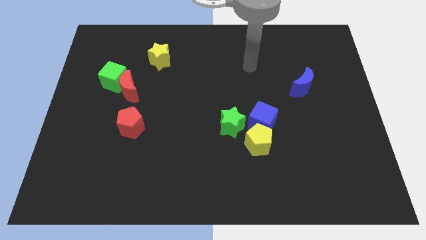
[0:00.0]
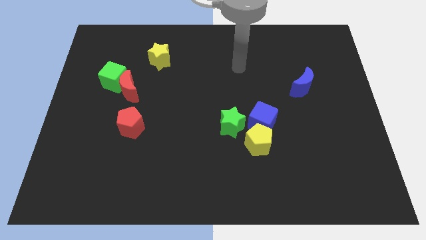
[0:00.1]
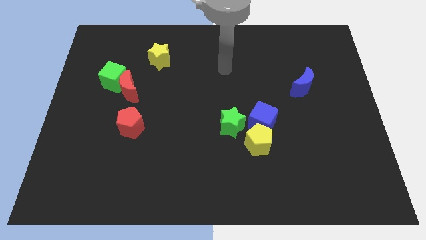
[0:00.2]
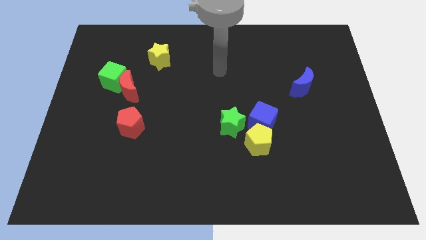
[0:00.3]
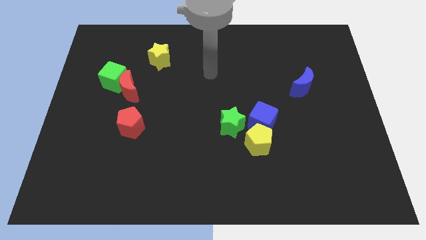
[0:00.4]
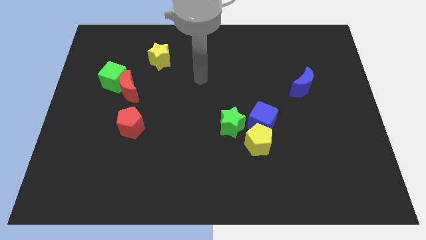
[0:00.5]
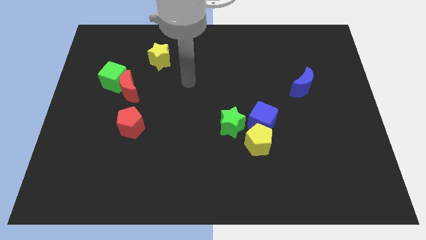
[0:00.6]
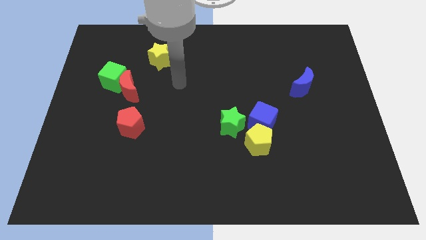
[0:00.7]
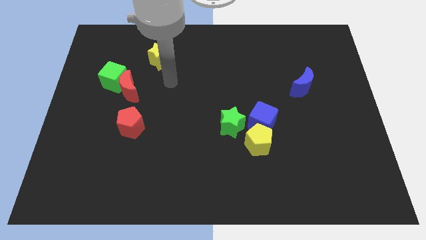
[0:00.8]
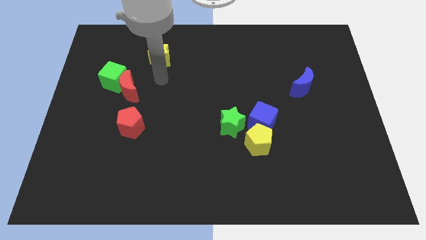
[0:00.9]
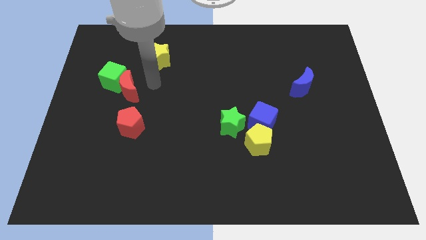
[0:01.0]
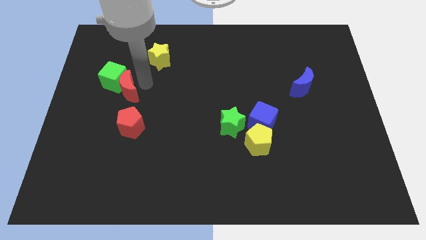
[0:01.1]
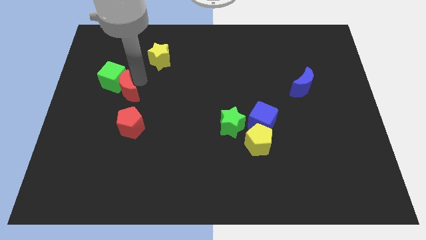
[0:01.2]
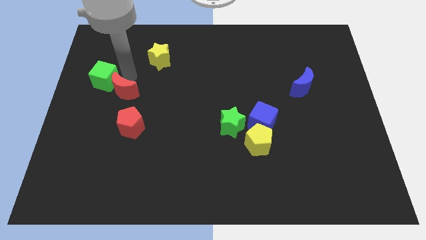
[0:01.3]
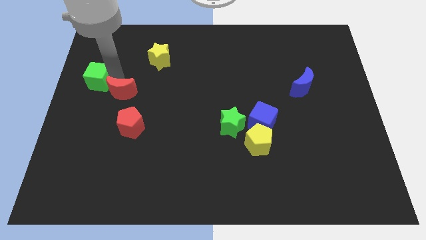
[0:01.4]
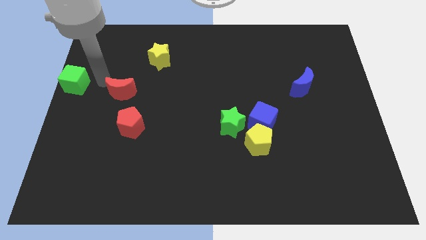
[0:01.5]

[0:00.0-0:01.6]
pull the red moon apart from the green cube

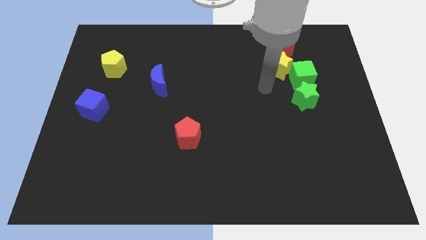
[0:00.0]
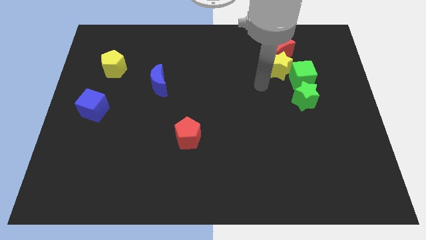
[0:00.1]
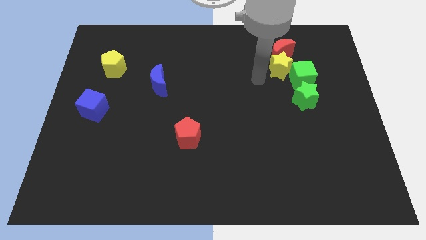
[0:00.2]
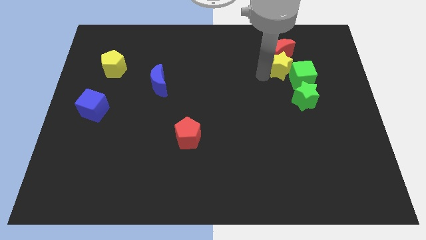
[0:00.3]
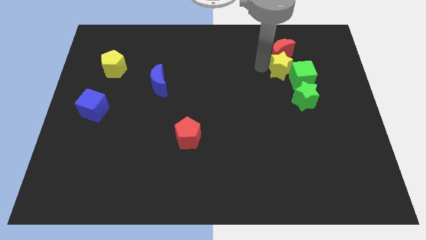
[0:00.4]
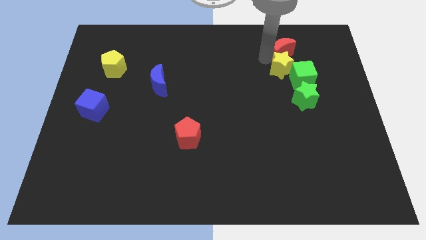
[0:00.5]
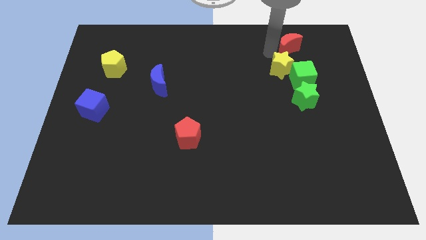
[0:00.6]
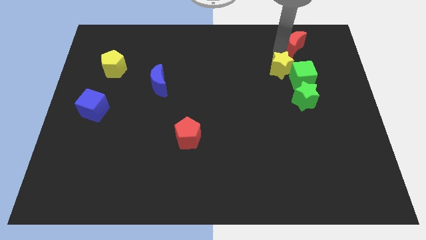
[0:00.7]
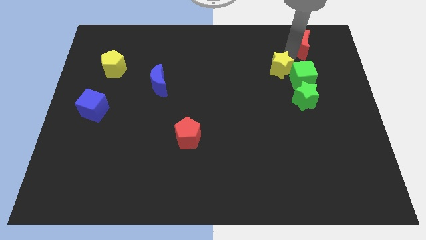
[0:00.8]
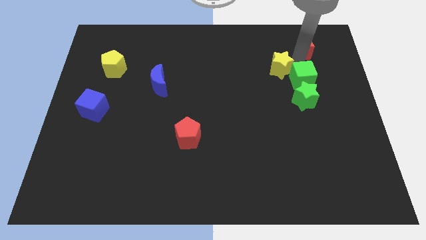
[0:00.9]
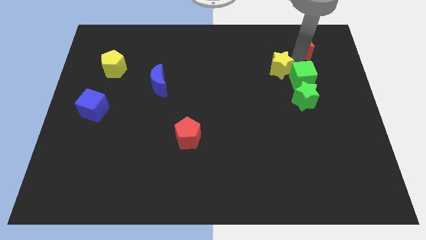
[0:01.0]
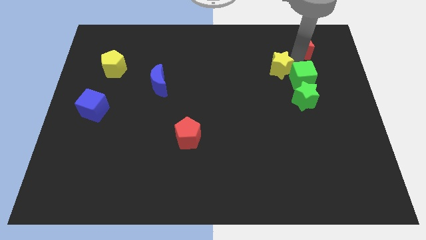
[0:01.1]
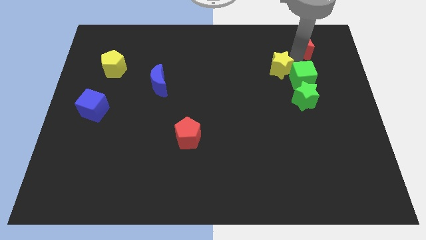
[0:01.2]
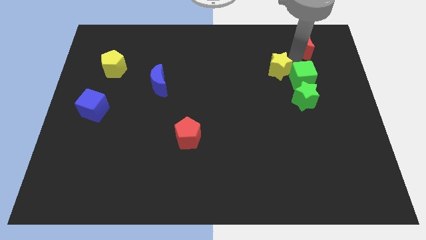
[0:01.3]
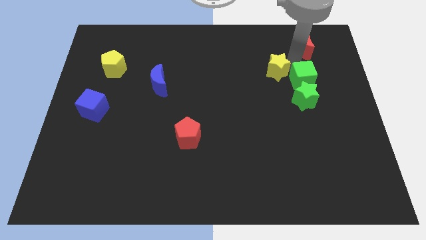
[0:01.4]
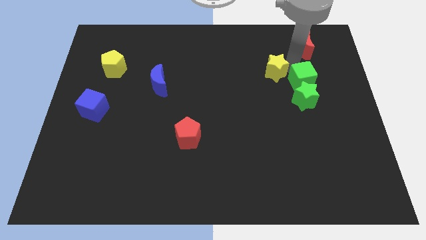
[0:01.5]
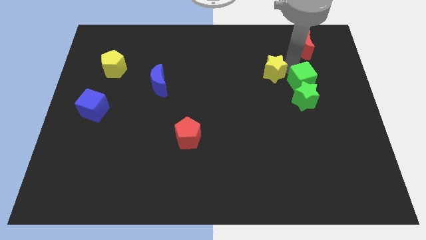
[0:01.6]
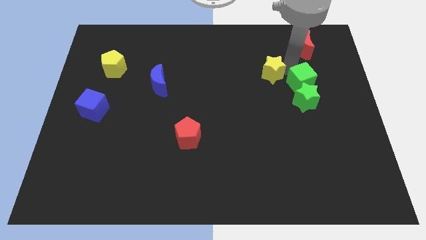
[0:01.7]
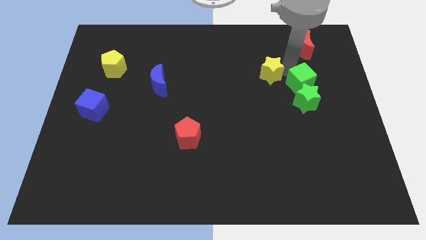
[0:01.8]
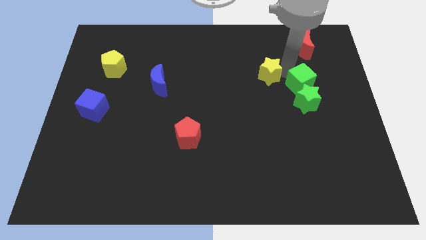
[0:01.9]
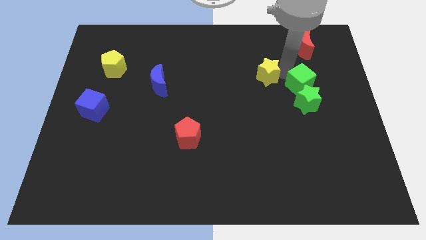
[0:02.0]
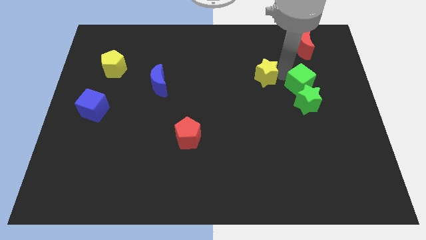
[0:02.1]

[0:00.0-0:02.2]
pull the yellow star apart from the red moon and green cube

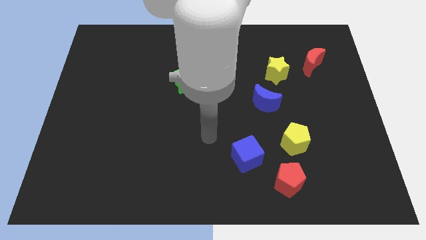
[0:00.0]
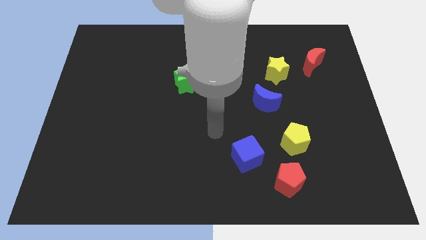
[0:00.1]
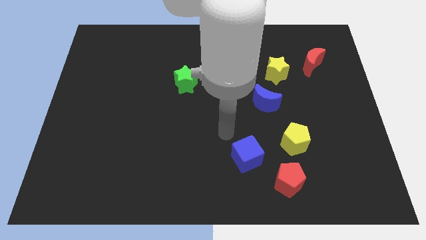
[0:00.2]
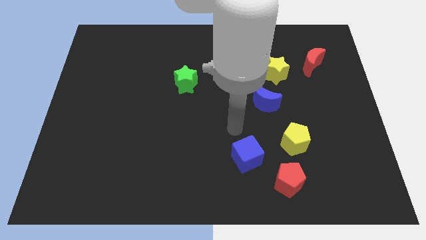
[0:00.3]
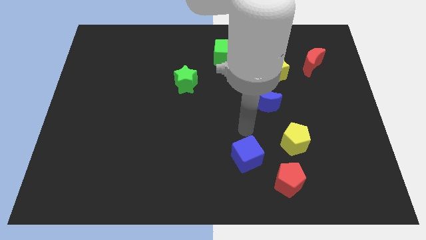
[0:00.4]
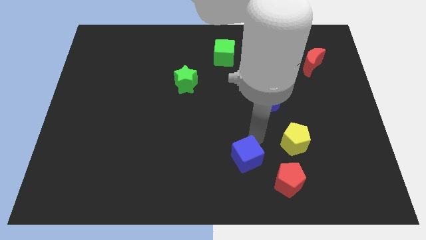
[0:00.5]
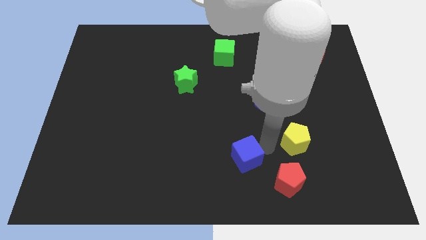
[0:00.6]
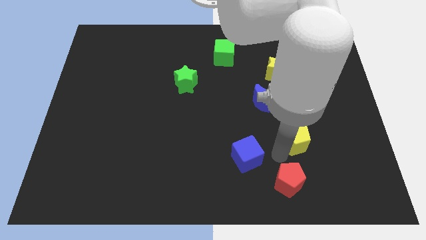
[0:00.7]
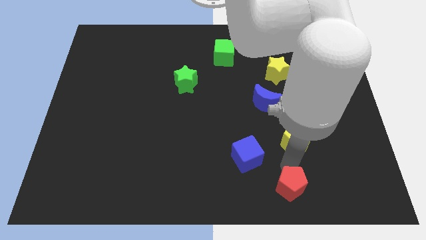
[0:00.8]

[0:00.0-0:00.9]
separate the yellow pentagon from the red pentagon

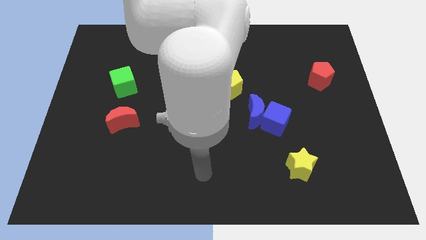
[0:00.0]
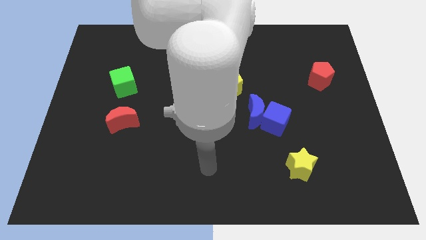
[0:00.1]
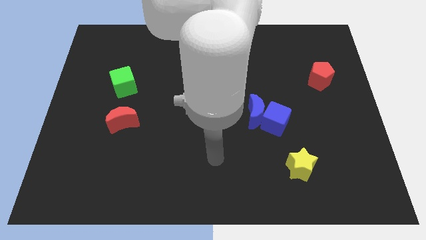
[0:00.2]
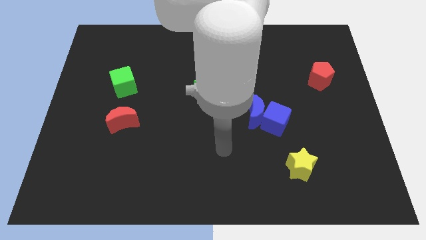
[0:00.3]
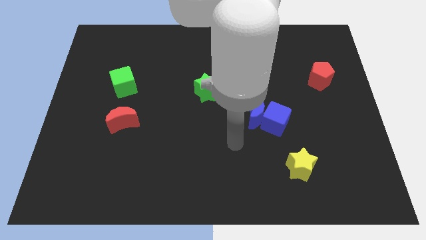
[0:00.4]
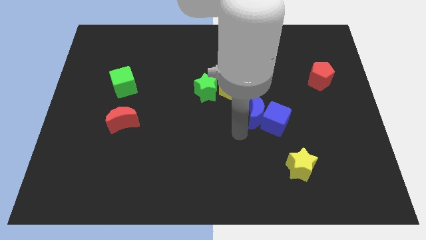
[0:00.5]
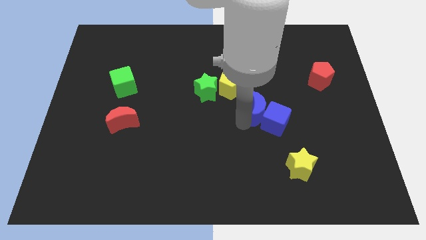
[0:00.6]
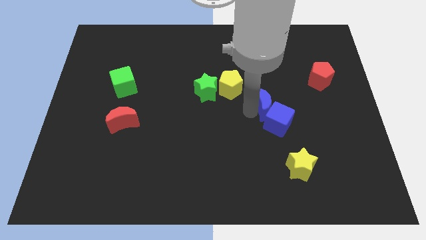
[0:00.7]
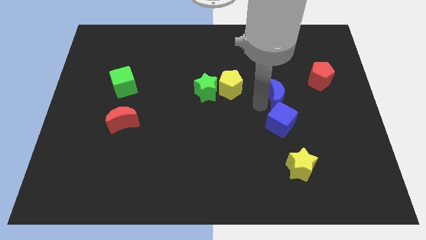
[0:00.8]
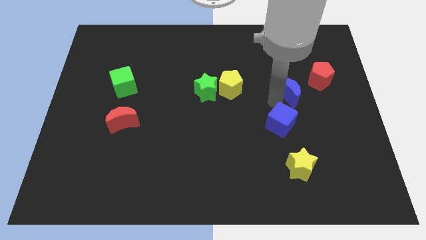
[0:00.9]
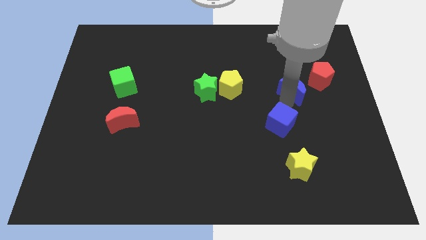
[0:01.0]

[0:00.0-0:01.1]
move the blue cube away from the blue moon

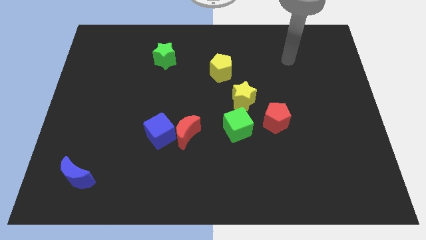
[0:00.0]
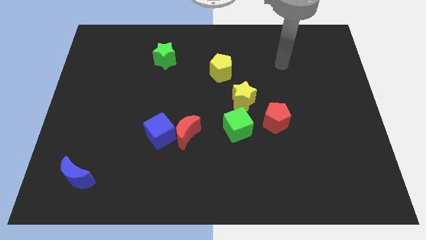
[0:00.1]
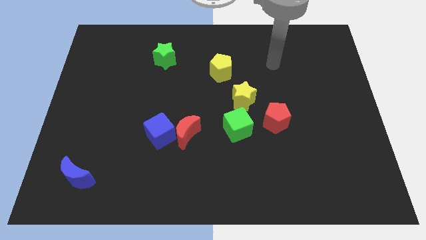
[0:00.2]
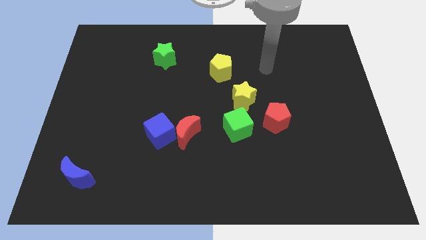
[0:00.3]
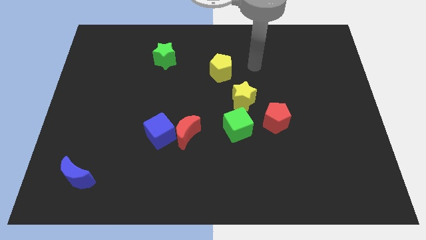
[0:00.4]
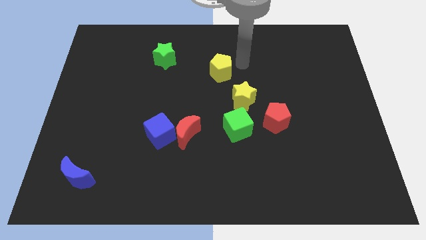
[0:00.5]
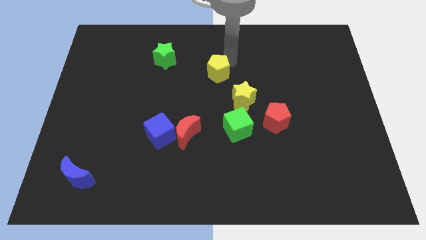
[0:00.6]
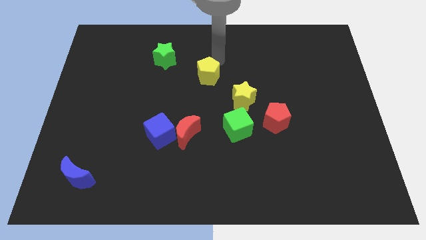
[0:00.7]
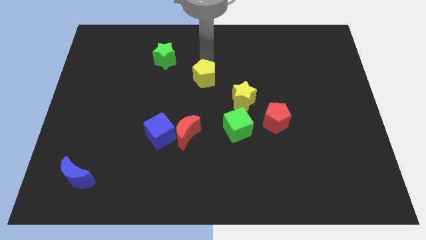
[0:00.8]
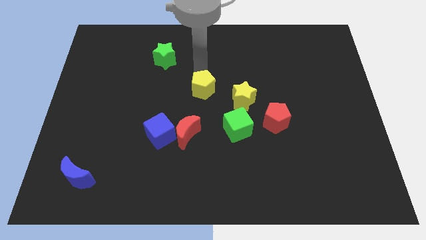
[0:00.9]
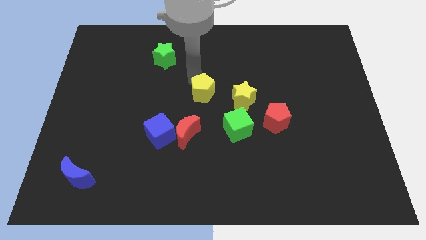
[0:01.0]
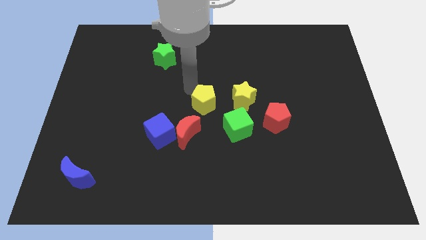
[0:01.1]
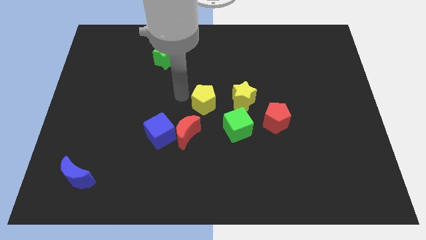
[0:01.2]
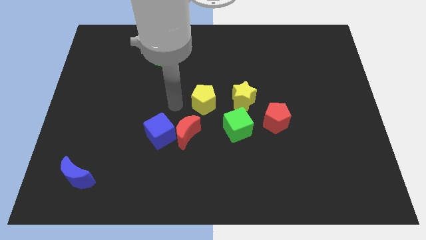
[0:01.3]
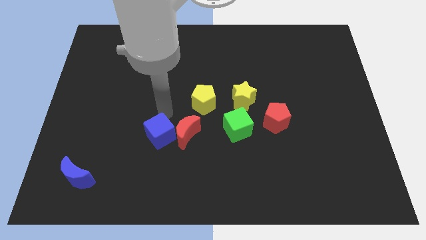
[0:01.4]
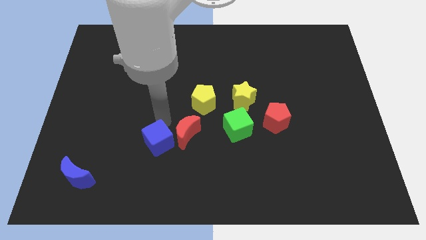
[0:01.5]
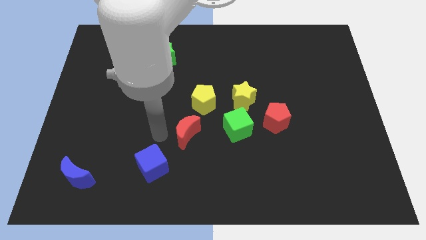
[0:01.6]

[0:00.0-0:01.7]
separate the red moon from the blue cube

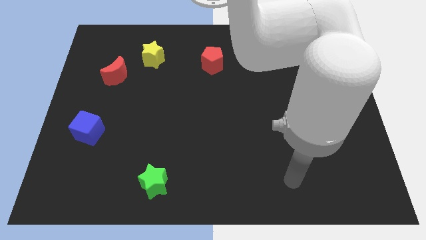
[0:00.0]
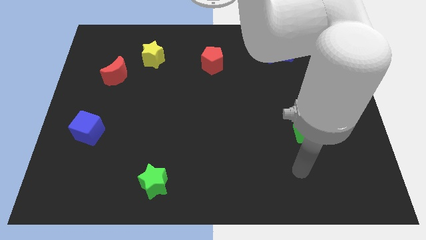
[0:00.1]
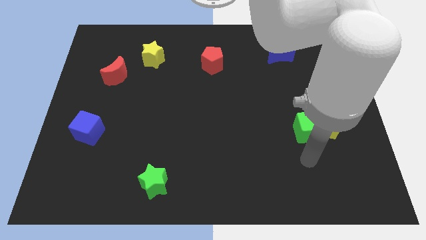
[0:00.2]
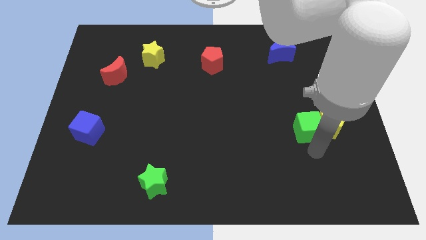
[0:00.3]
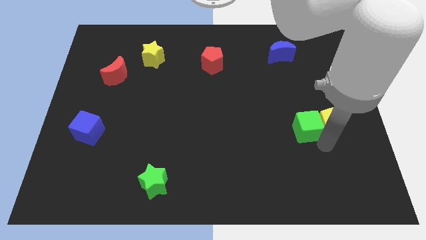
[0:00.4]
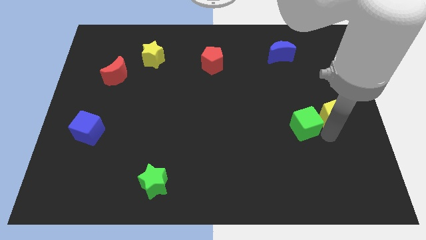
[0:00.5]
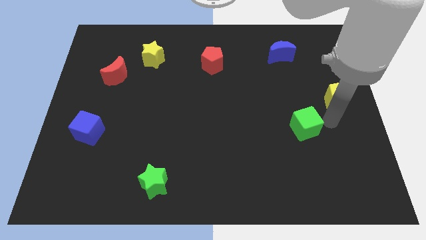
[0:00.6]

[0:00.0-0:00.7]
pull the green cube apart from the yellow pentagon

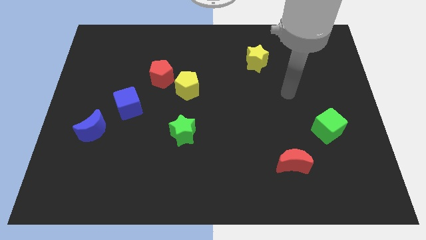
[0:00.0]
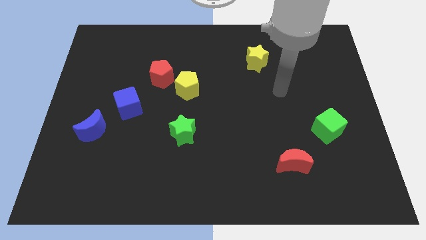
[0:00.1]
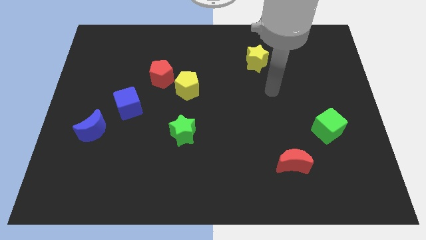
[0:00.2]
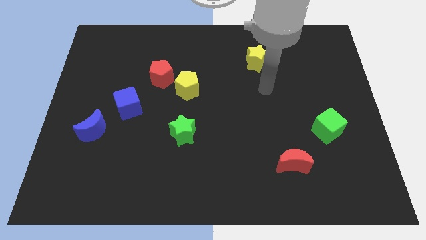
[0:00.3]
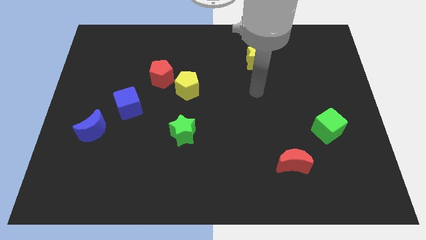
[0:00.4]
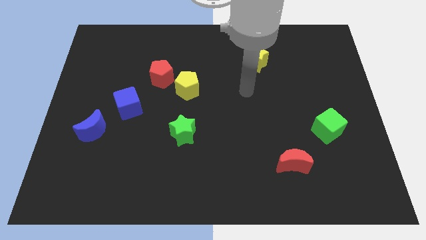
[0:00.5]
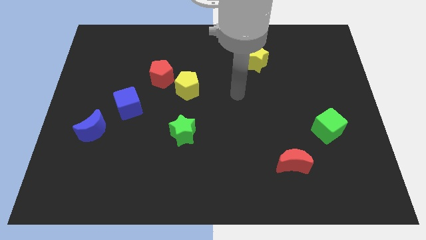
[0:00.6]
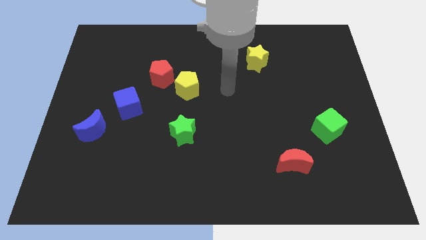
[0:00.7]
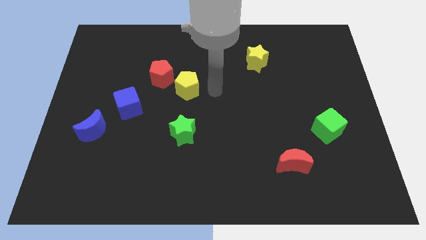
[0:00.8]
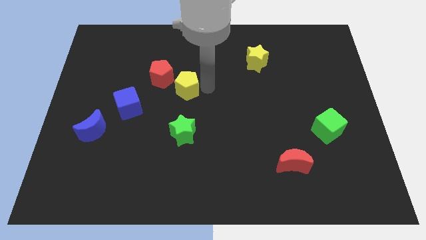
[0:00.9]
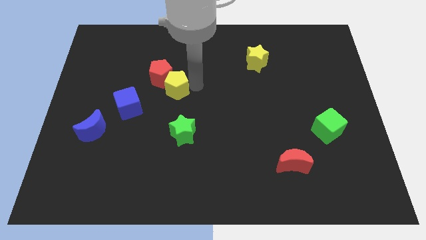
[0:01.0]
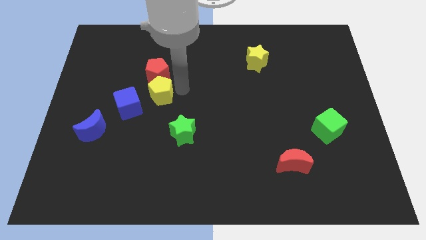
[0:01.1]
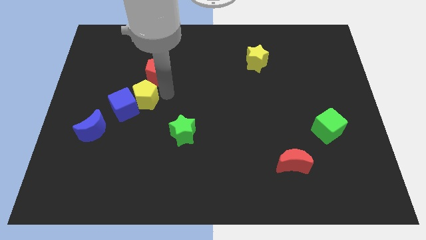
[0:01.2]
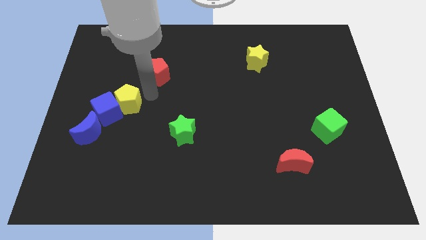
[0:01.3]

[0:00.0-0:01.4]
move the red pentagon away from the yellow pentagon
